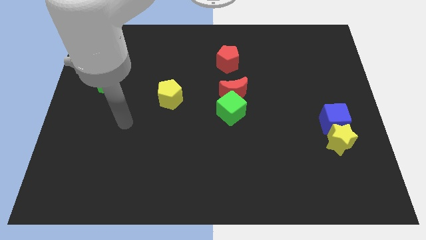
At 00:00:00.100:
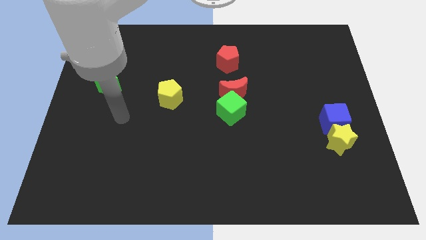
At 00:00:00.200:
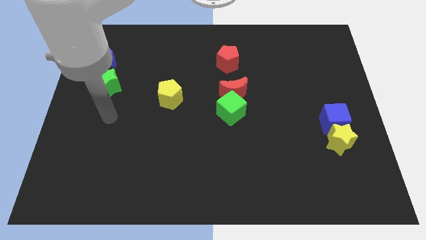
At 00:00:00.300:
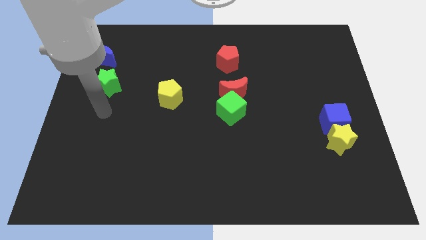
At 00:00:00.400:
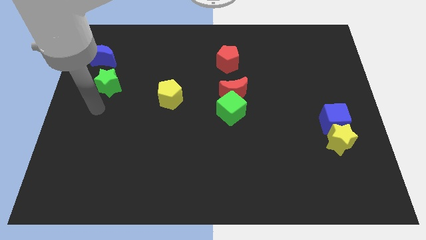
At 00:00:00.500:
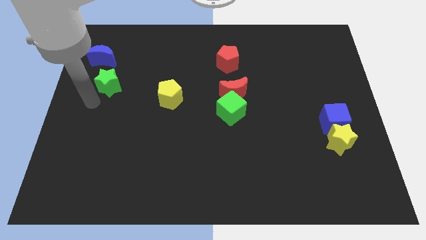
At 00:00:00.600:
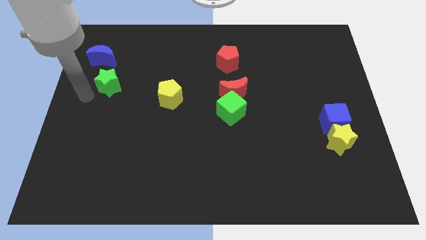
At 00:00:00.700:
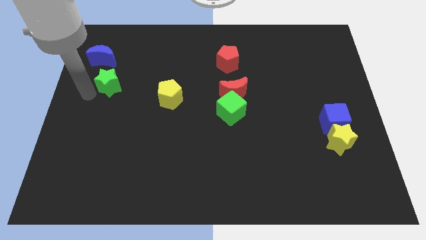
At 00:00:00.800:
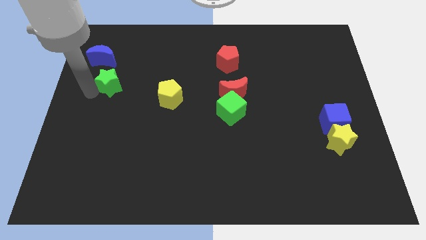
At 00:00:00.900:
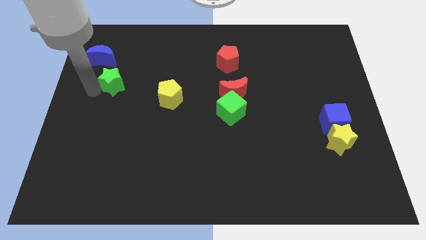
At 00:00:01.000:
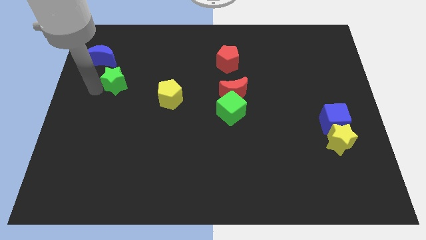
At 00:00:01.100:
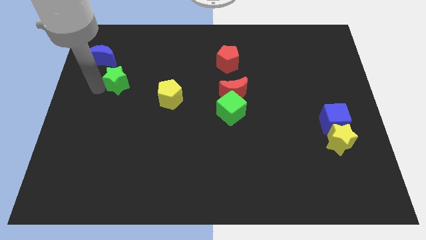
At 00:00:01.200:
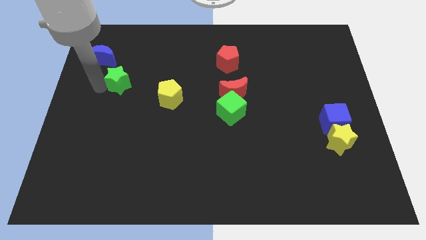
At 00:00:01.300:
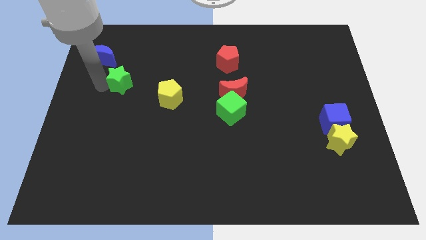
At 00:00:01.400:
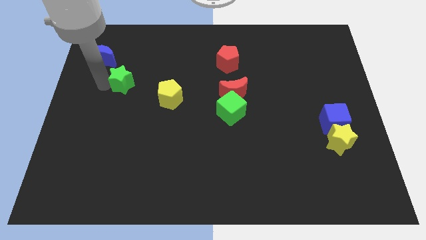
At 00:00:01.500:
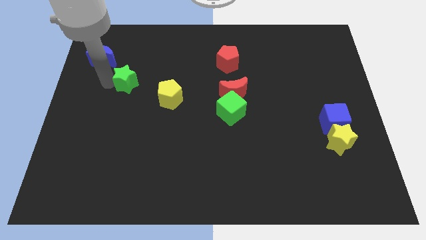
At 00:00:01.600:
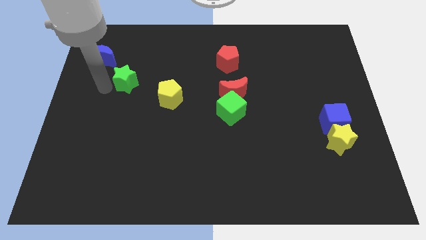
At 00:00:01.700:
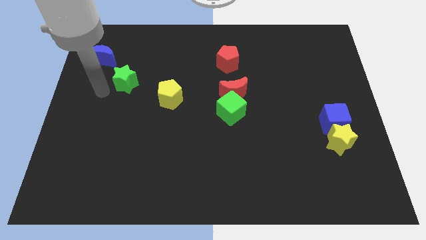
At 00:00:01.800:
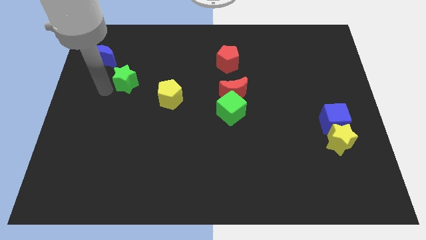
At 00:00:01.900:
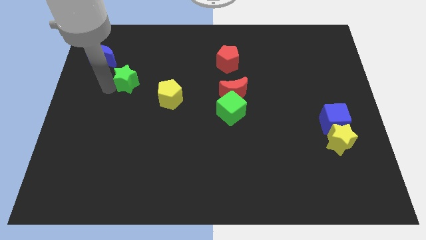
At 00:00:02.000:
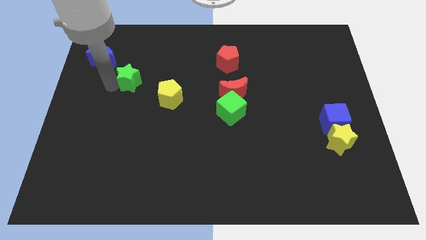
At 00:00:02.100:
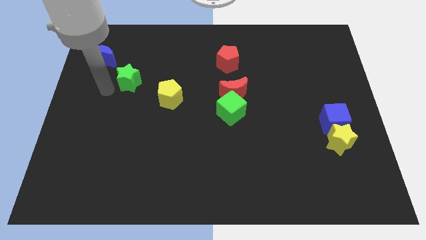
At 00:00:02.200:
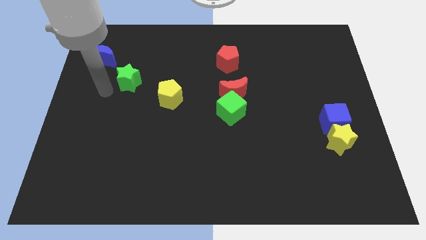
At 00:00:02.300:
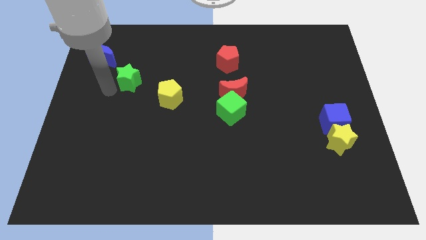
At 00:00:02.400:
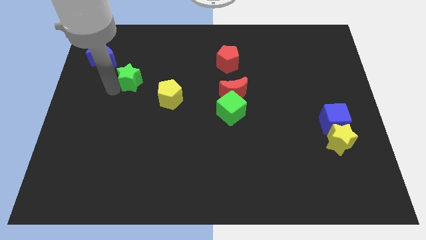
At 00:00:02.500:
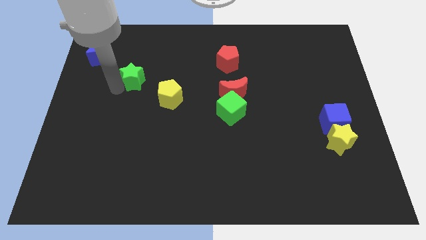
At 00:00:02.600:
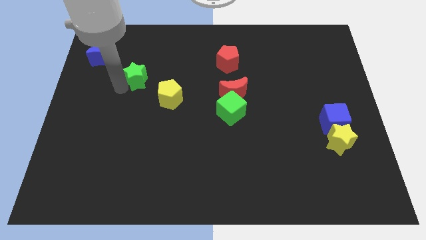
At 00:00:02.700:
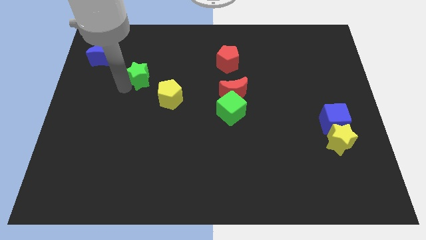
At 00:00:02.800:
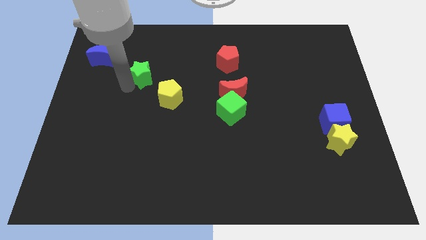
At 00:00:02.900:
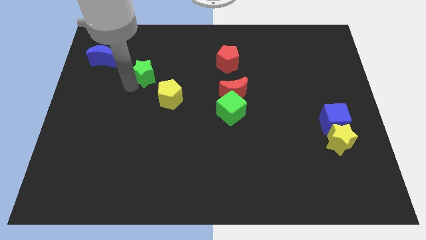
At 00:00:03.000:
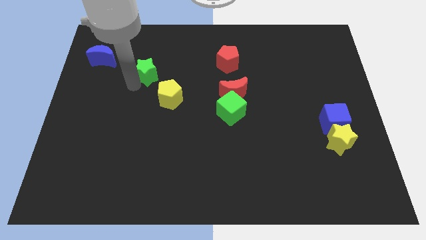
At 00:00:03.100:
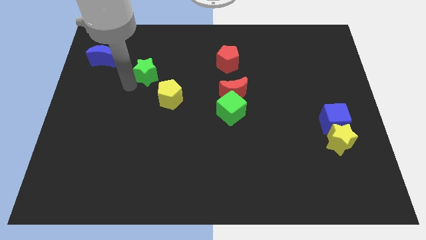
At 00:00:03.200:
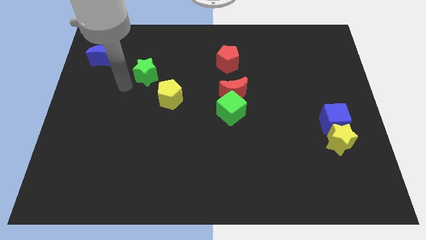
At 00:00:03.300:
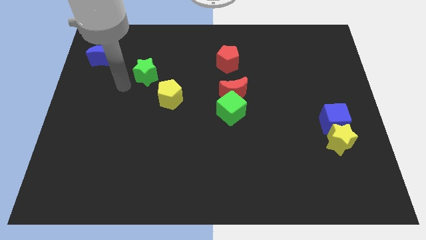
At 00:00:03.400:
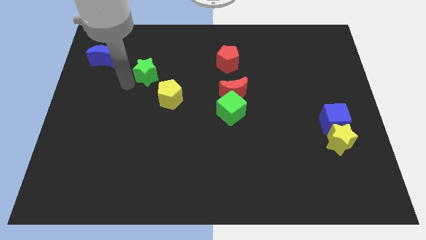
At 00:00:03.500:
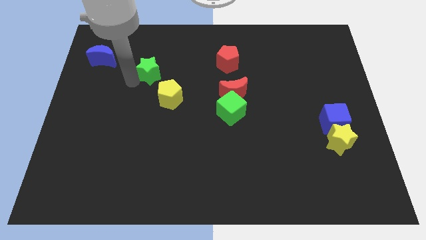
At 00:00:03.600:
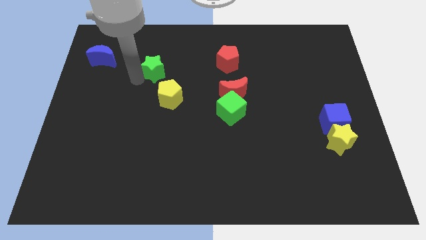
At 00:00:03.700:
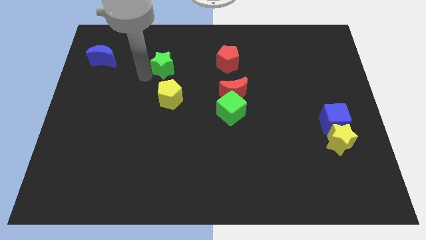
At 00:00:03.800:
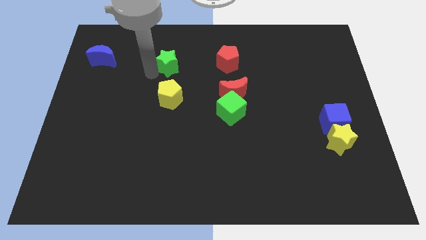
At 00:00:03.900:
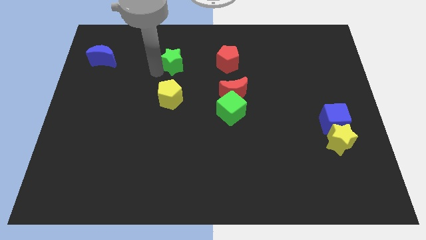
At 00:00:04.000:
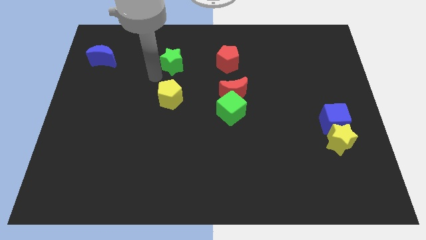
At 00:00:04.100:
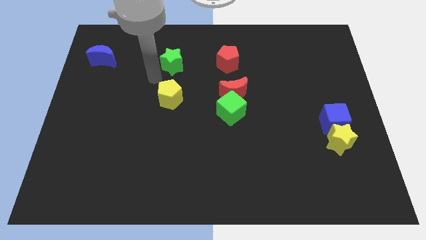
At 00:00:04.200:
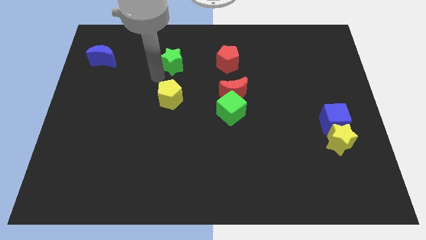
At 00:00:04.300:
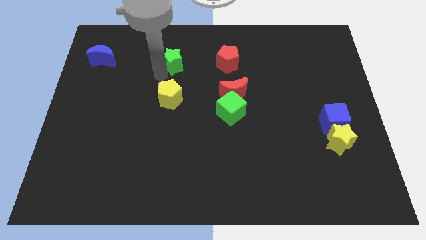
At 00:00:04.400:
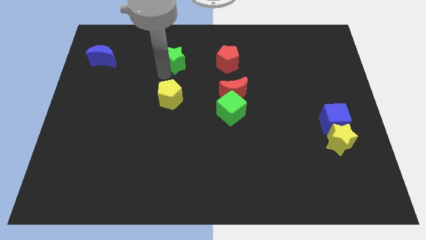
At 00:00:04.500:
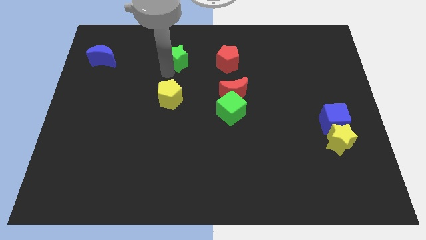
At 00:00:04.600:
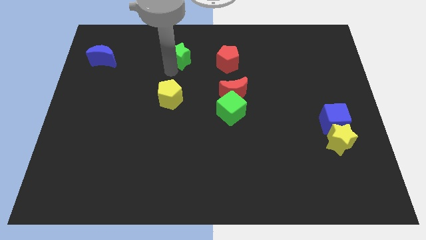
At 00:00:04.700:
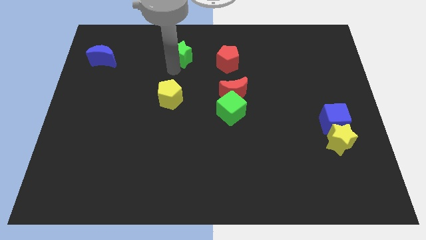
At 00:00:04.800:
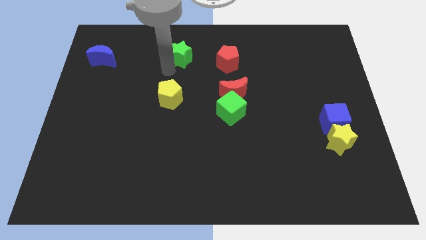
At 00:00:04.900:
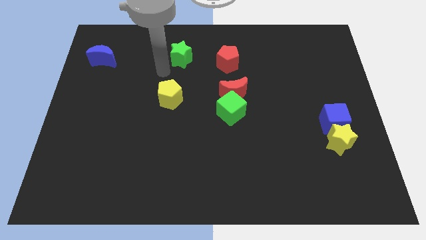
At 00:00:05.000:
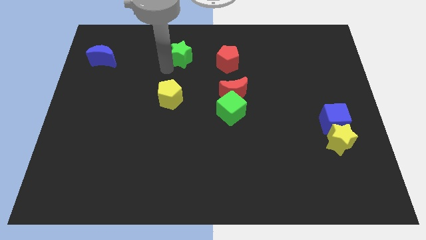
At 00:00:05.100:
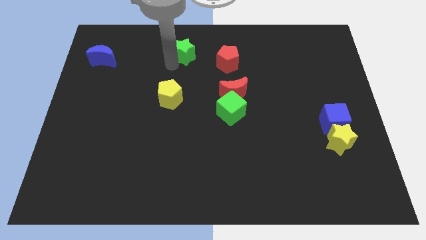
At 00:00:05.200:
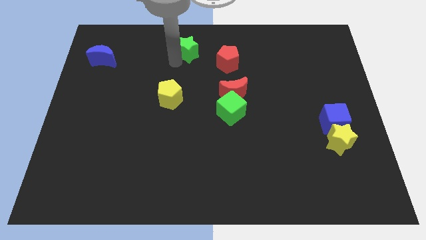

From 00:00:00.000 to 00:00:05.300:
put the green star to the top side
